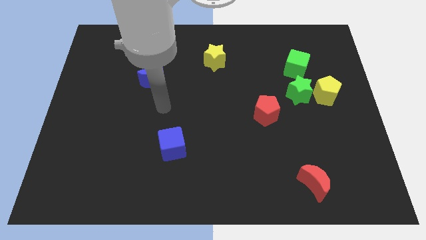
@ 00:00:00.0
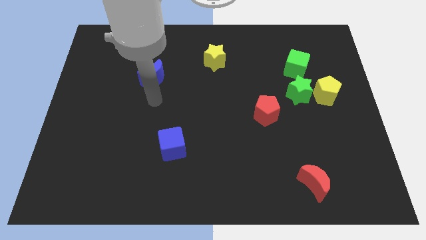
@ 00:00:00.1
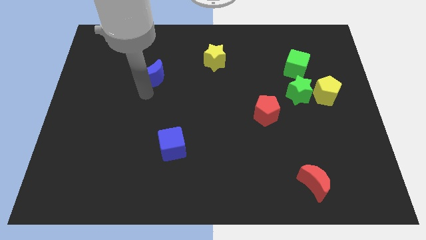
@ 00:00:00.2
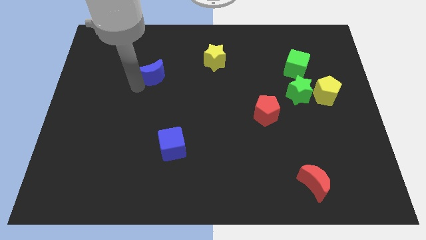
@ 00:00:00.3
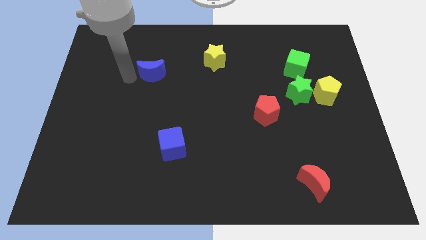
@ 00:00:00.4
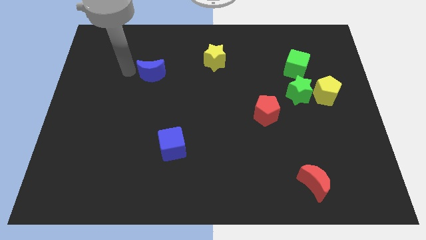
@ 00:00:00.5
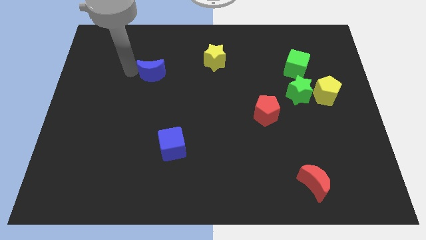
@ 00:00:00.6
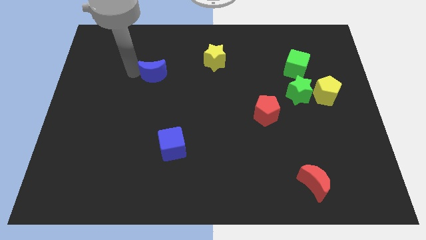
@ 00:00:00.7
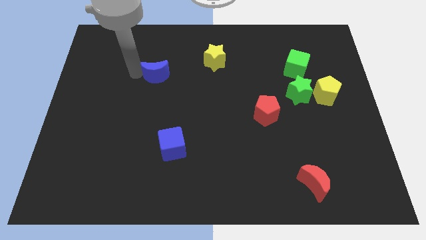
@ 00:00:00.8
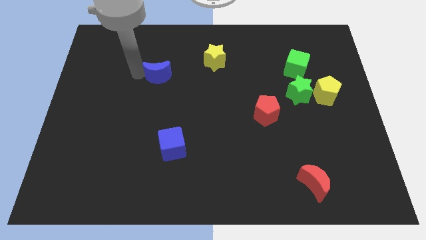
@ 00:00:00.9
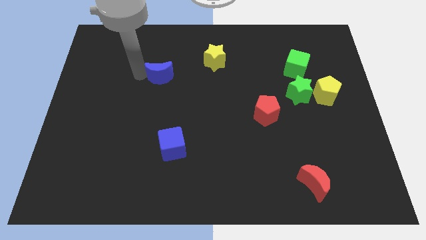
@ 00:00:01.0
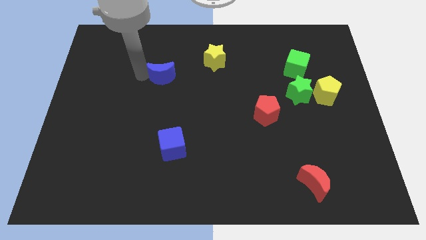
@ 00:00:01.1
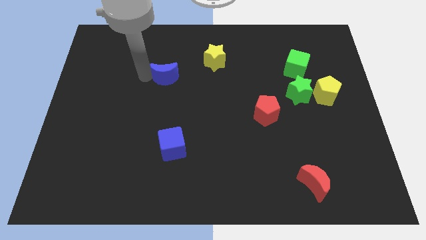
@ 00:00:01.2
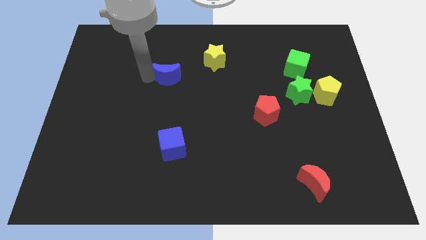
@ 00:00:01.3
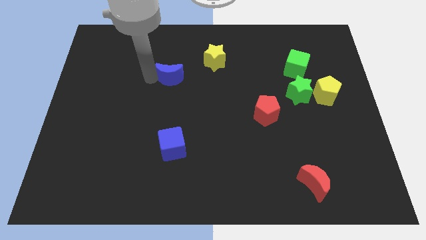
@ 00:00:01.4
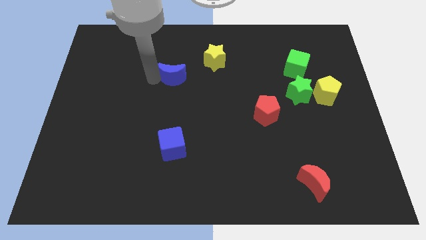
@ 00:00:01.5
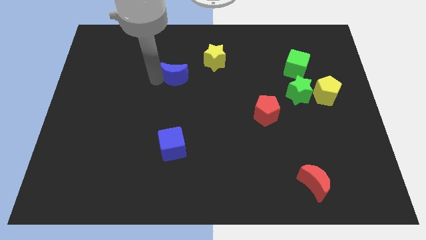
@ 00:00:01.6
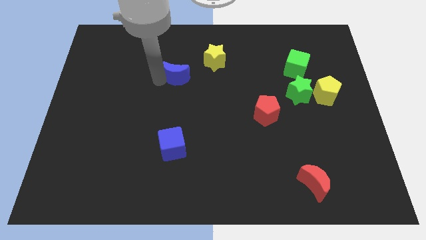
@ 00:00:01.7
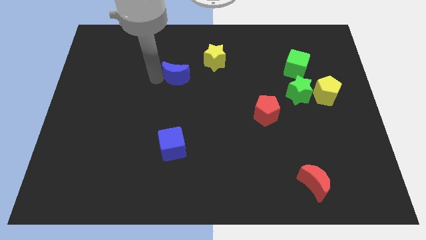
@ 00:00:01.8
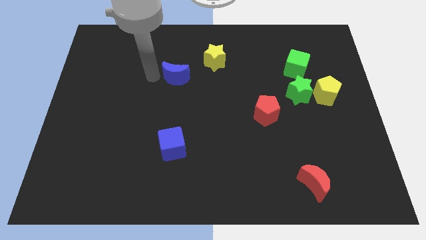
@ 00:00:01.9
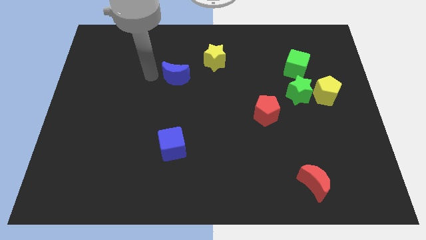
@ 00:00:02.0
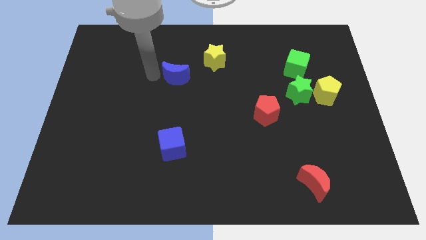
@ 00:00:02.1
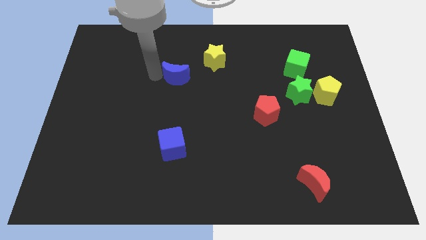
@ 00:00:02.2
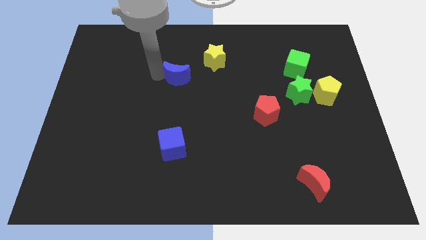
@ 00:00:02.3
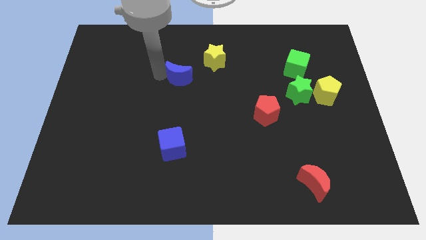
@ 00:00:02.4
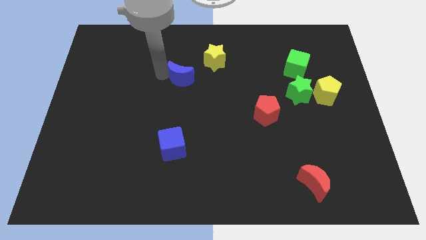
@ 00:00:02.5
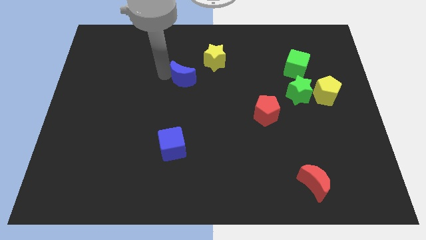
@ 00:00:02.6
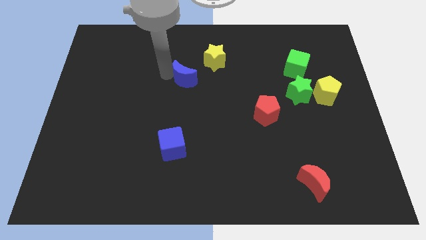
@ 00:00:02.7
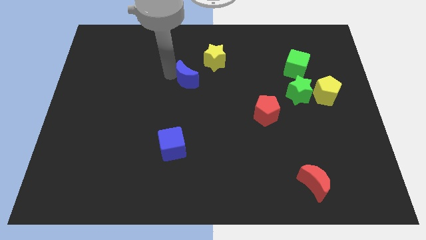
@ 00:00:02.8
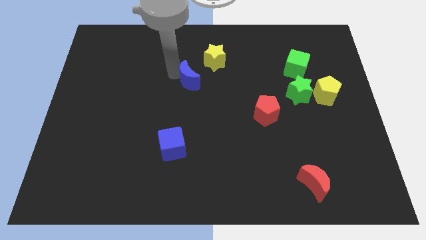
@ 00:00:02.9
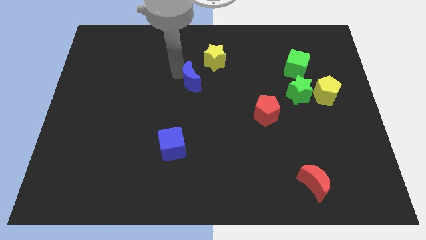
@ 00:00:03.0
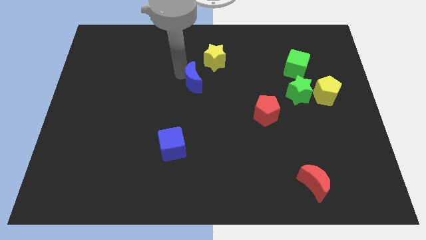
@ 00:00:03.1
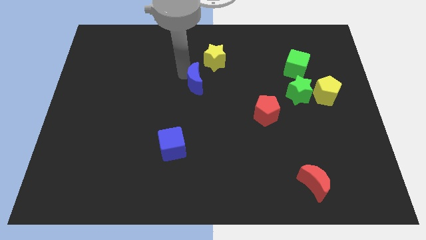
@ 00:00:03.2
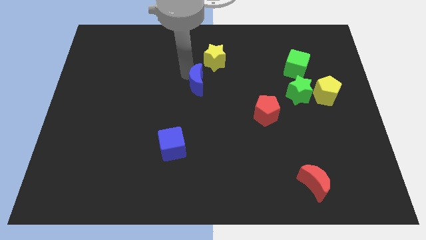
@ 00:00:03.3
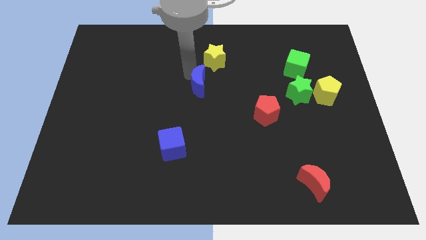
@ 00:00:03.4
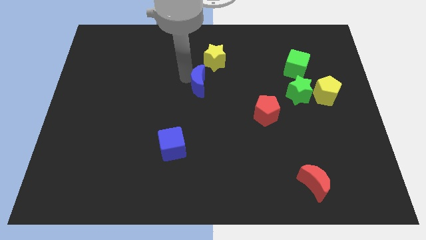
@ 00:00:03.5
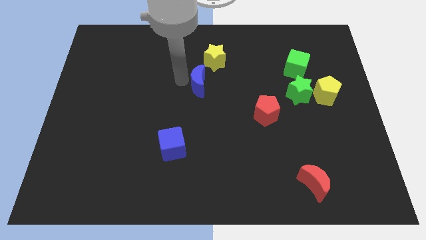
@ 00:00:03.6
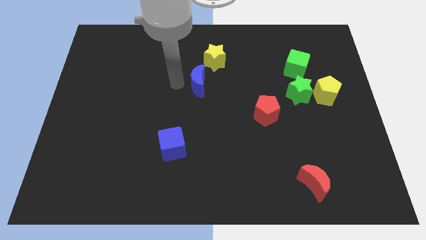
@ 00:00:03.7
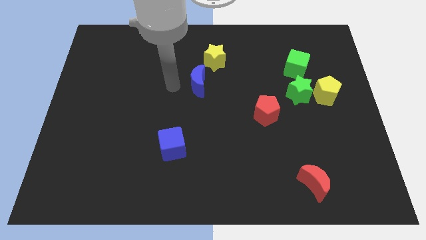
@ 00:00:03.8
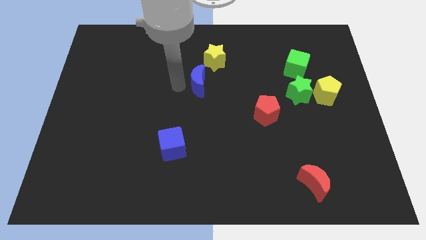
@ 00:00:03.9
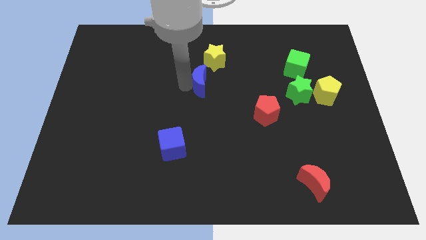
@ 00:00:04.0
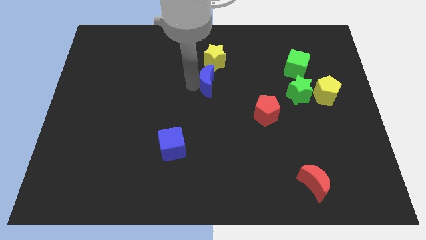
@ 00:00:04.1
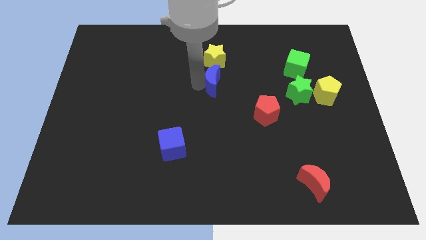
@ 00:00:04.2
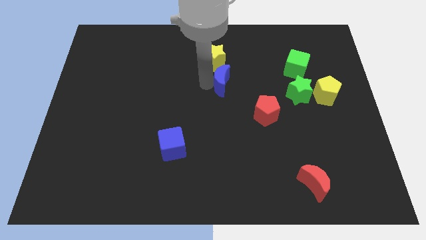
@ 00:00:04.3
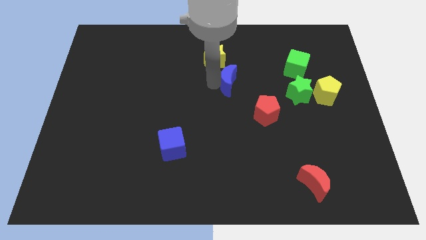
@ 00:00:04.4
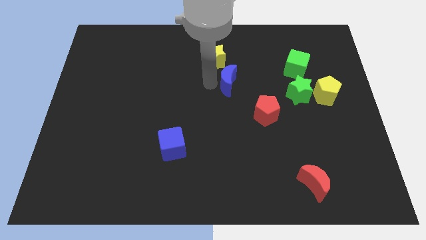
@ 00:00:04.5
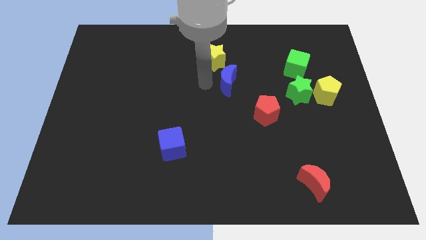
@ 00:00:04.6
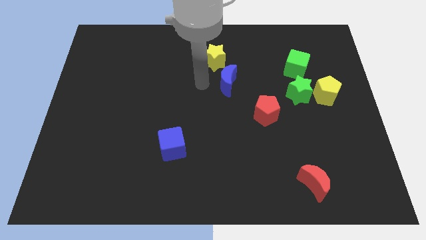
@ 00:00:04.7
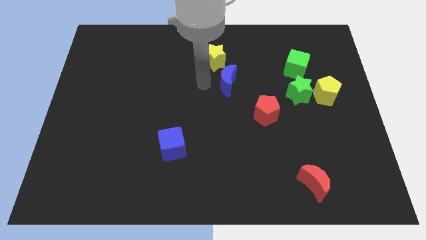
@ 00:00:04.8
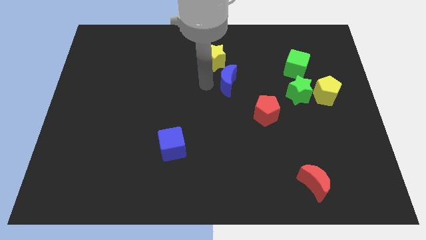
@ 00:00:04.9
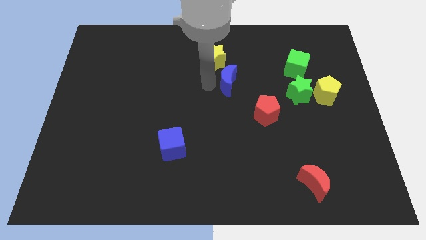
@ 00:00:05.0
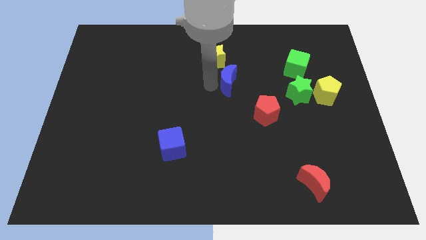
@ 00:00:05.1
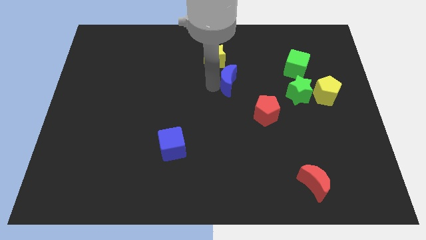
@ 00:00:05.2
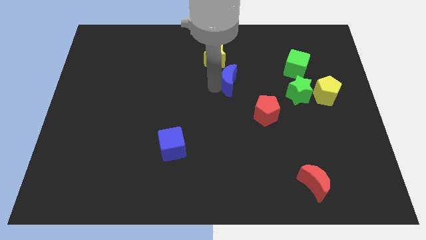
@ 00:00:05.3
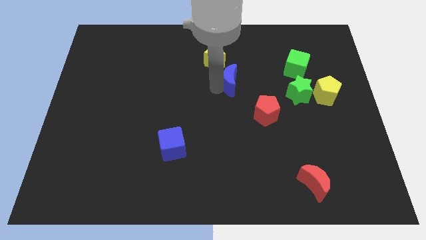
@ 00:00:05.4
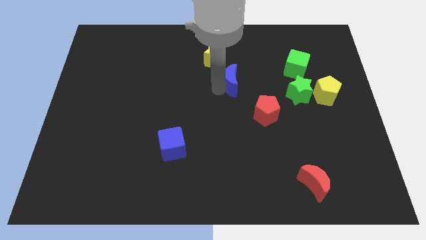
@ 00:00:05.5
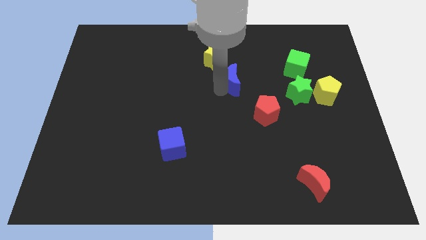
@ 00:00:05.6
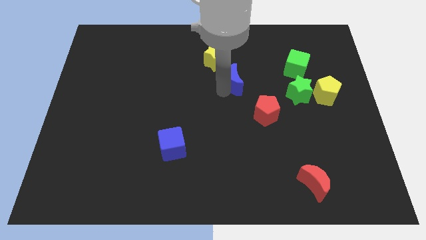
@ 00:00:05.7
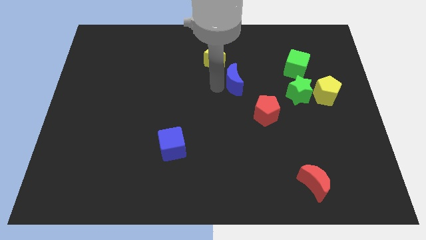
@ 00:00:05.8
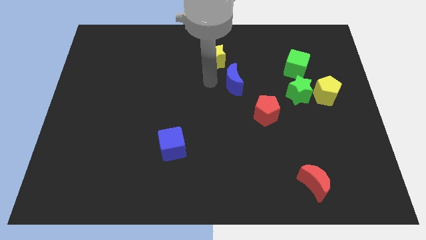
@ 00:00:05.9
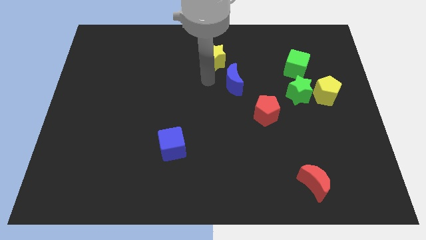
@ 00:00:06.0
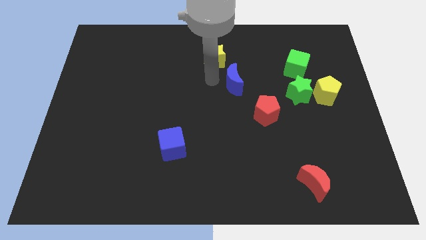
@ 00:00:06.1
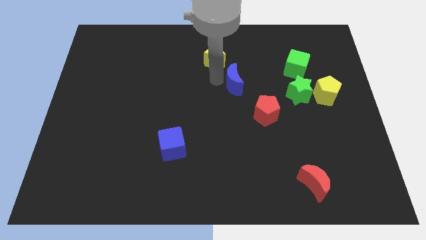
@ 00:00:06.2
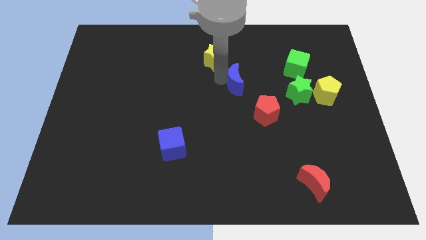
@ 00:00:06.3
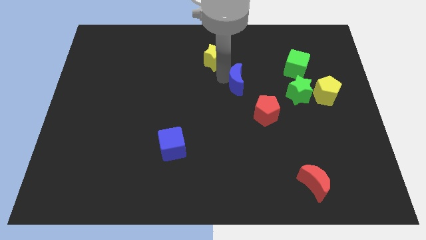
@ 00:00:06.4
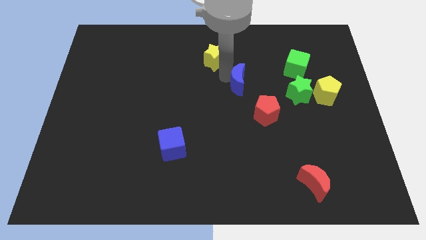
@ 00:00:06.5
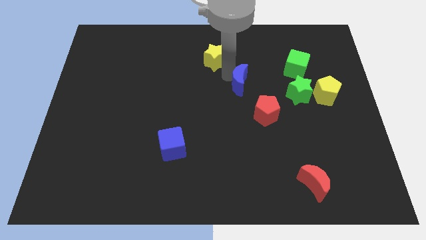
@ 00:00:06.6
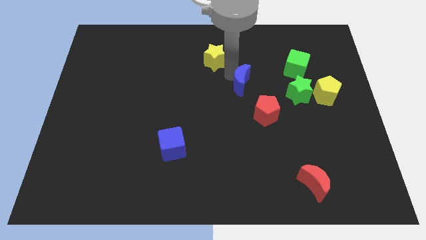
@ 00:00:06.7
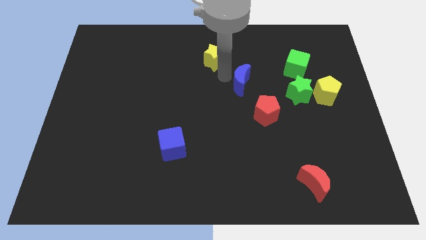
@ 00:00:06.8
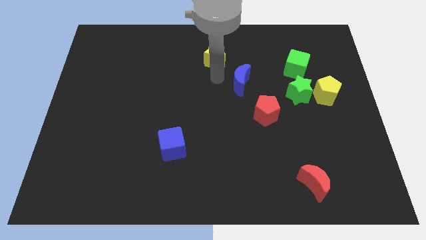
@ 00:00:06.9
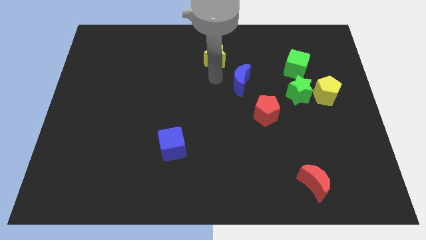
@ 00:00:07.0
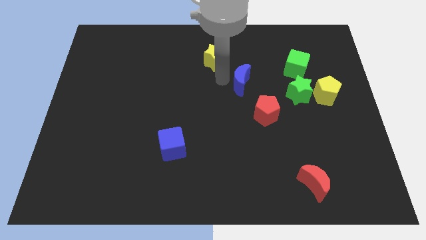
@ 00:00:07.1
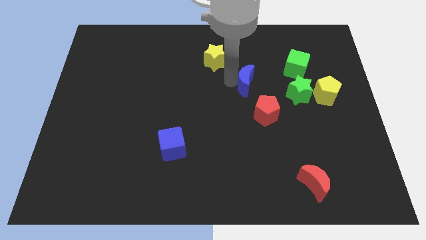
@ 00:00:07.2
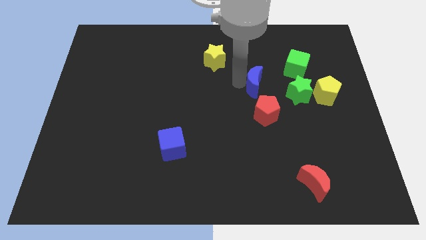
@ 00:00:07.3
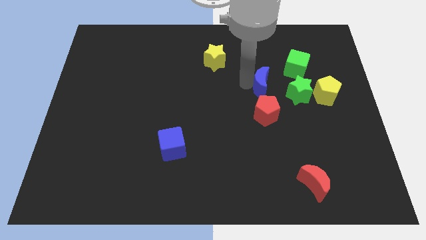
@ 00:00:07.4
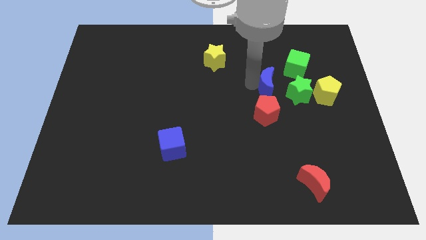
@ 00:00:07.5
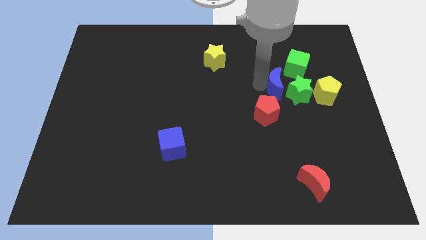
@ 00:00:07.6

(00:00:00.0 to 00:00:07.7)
push the blue moon towards the green star

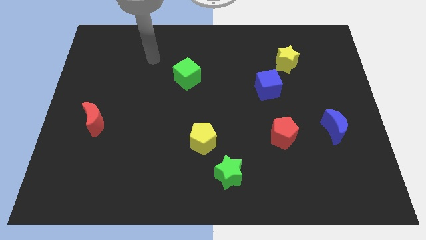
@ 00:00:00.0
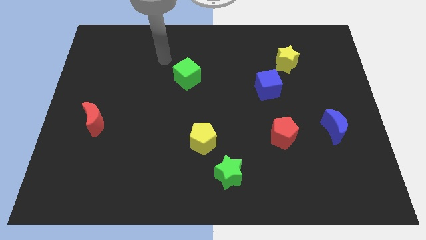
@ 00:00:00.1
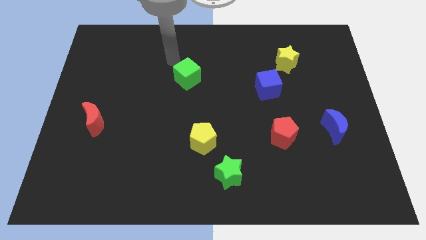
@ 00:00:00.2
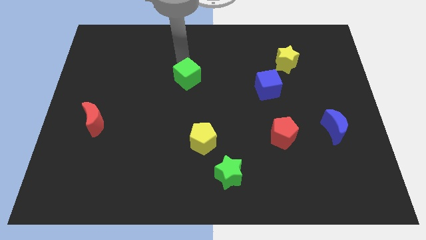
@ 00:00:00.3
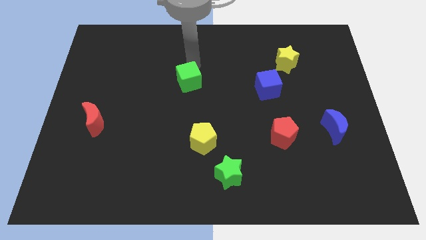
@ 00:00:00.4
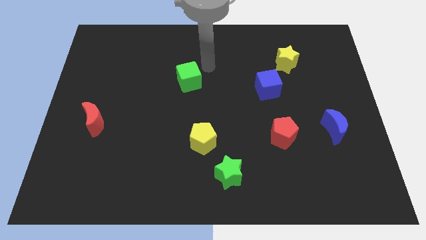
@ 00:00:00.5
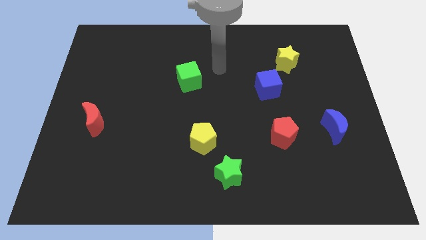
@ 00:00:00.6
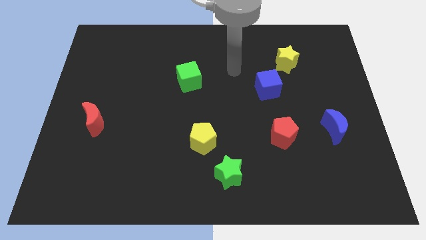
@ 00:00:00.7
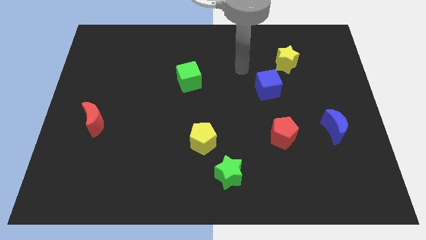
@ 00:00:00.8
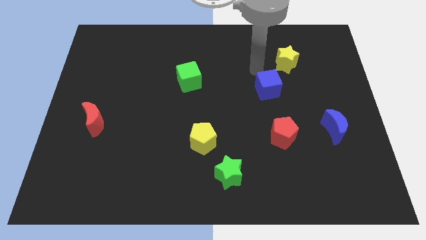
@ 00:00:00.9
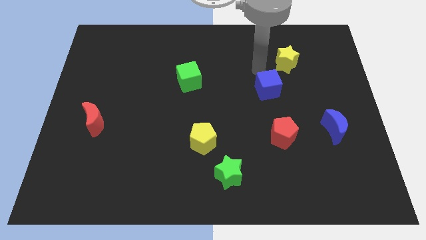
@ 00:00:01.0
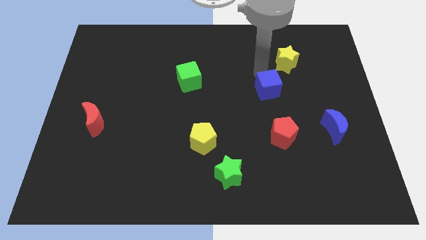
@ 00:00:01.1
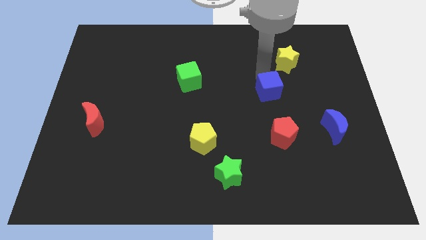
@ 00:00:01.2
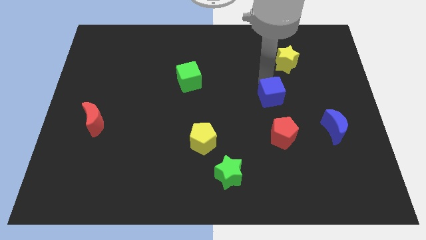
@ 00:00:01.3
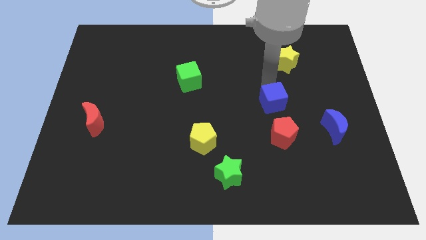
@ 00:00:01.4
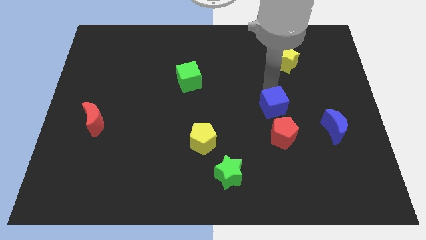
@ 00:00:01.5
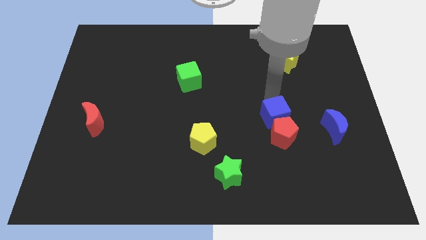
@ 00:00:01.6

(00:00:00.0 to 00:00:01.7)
slide the blue cube close to the red pentagon
